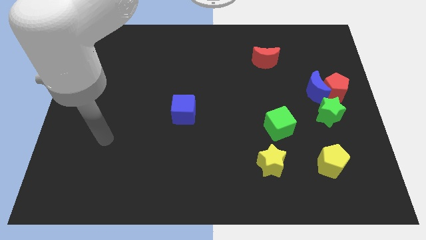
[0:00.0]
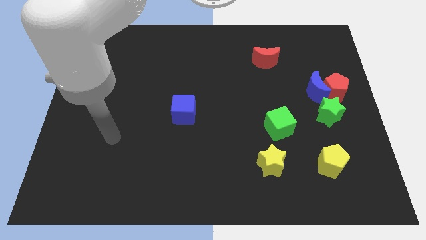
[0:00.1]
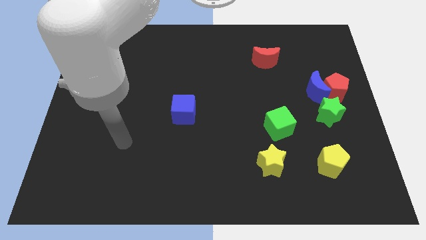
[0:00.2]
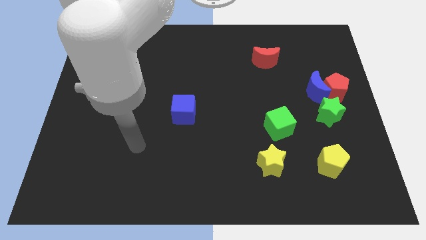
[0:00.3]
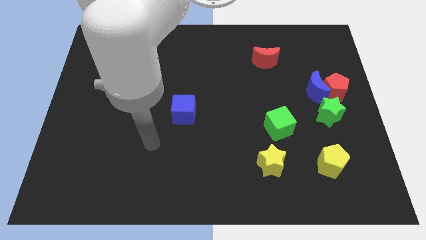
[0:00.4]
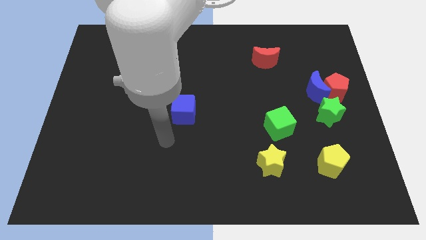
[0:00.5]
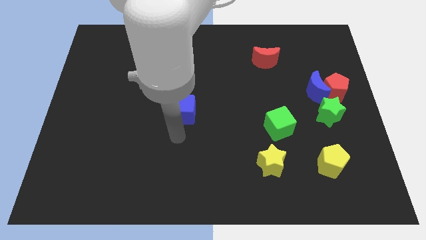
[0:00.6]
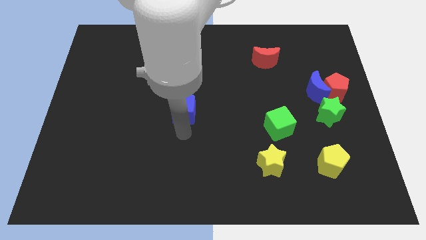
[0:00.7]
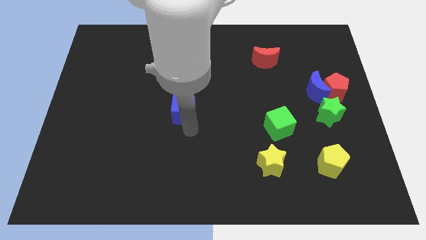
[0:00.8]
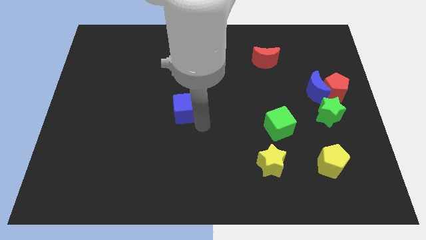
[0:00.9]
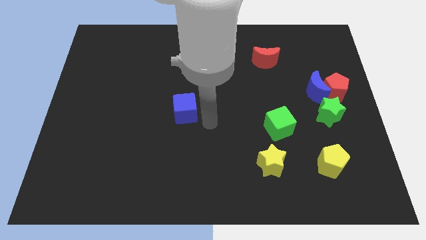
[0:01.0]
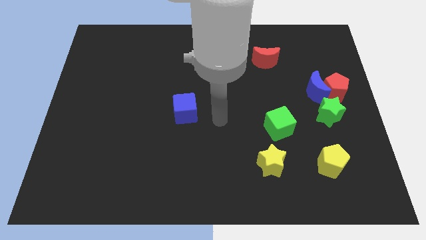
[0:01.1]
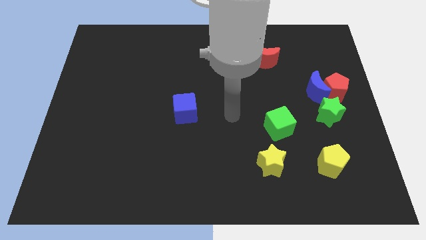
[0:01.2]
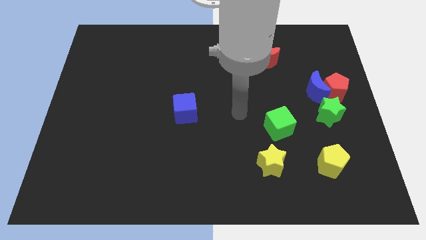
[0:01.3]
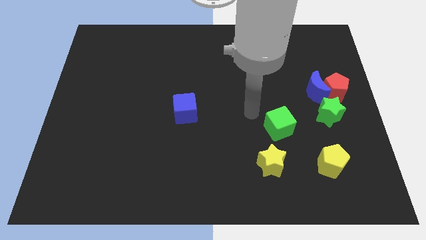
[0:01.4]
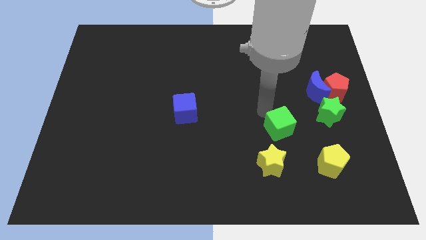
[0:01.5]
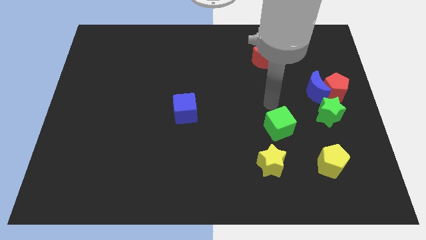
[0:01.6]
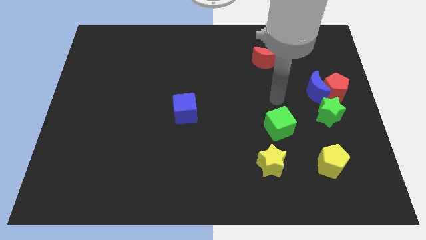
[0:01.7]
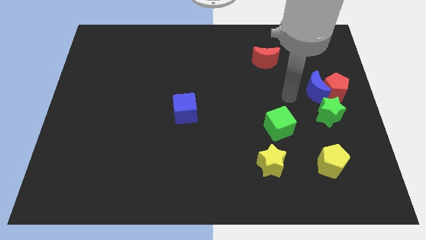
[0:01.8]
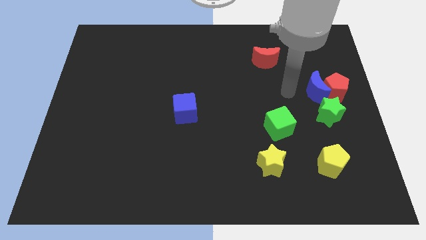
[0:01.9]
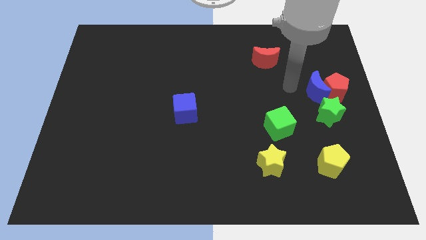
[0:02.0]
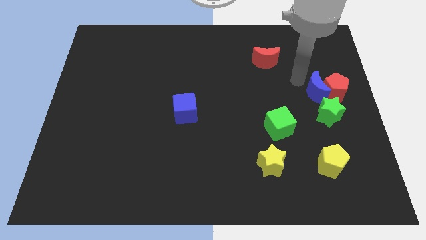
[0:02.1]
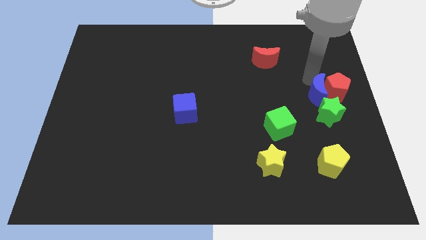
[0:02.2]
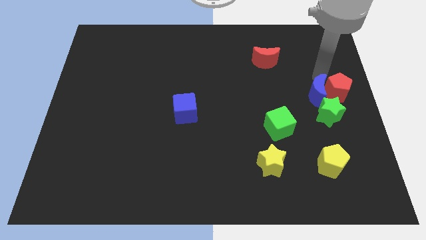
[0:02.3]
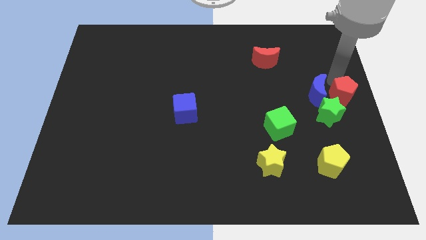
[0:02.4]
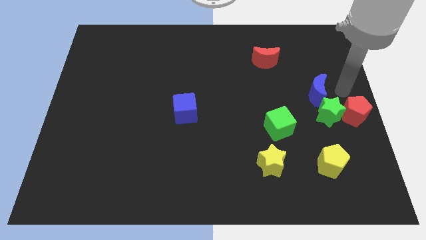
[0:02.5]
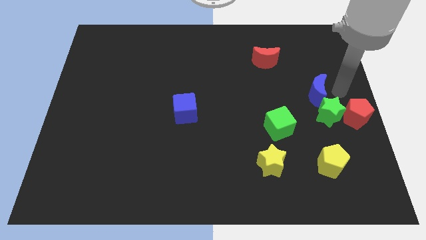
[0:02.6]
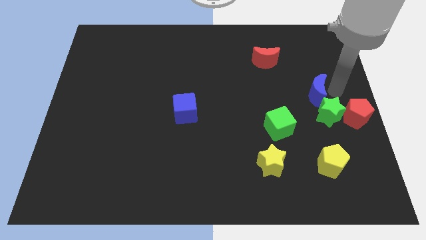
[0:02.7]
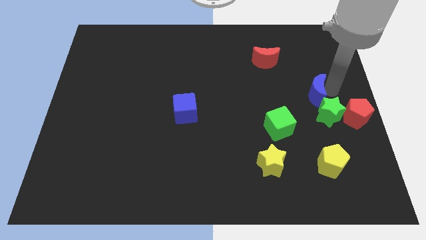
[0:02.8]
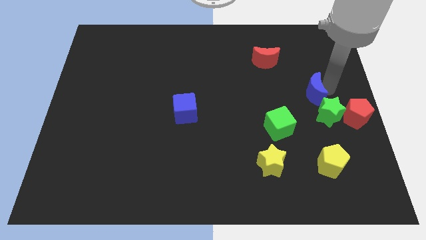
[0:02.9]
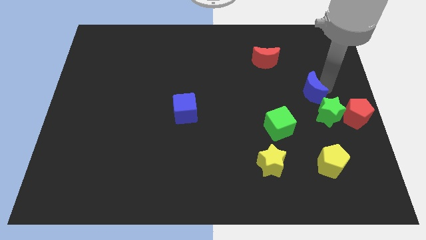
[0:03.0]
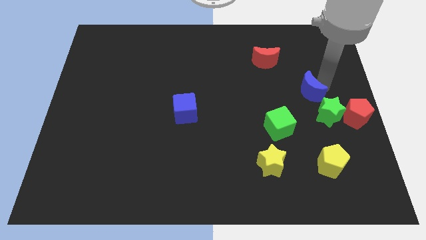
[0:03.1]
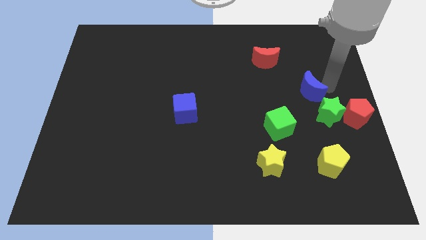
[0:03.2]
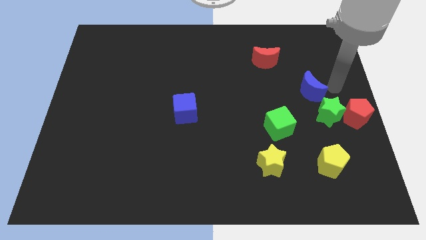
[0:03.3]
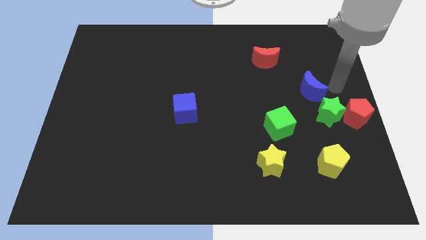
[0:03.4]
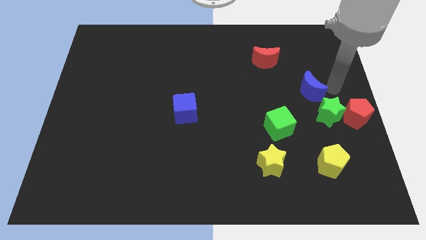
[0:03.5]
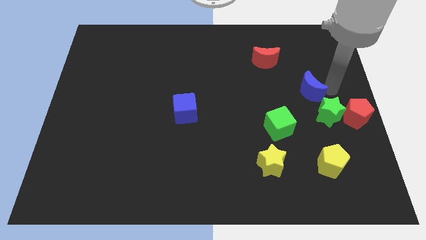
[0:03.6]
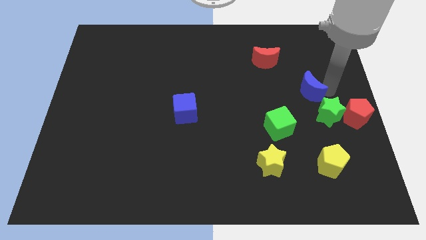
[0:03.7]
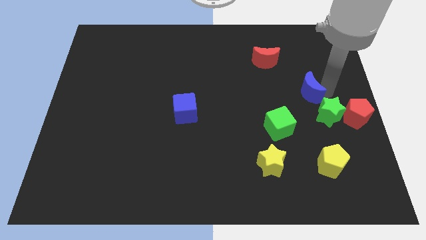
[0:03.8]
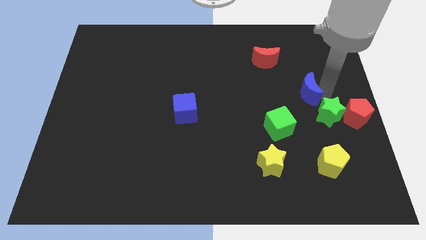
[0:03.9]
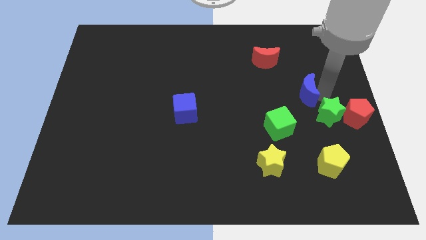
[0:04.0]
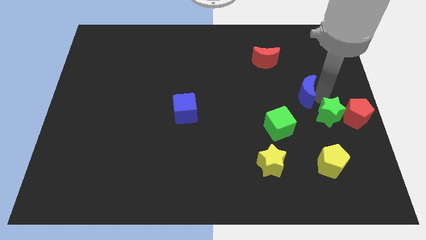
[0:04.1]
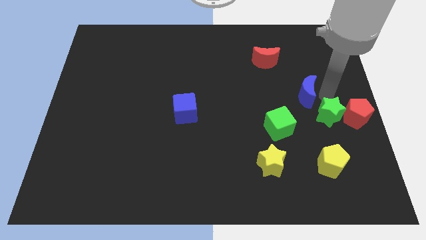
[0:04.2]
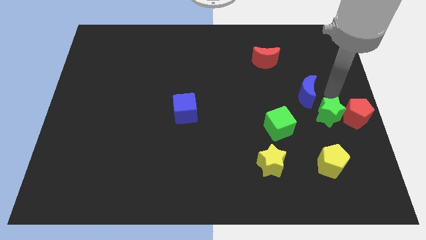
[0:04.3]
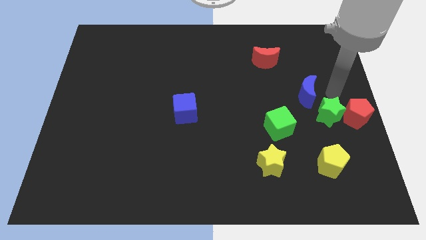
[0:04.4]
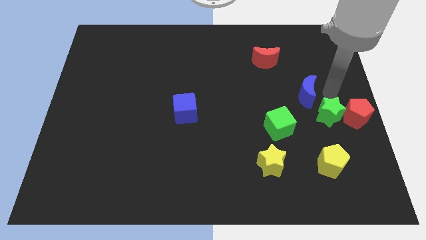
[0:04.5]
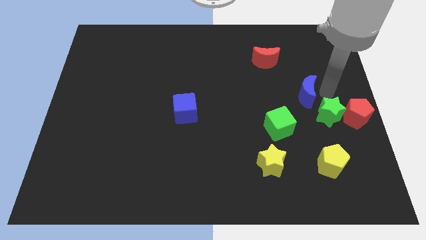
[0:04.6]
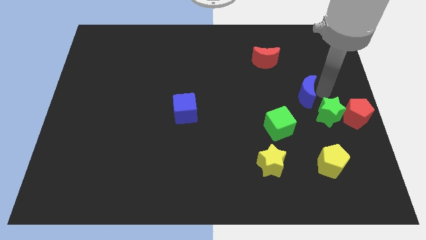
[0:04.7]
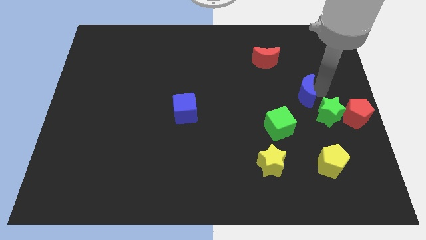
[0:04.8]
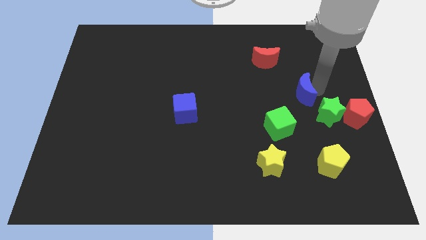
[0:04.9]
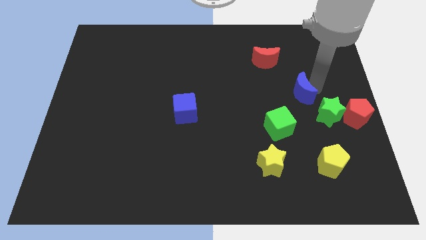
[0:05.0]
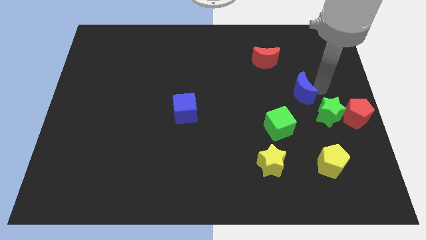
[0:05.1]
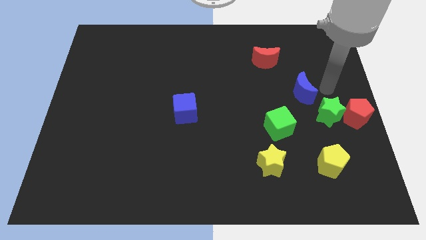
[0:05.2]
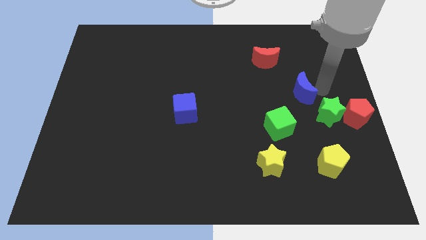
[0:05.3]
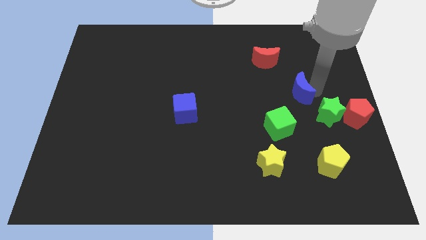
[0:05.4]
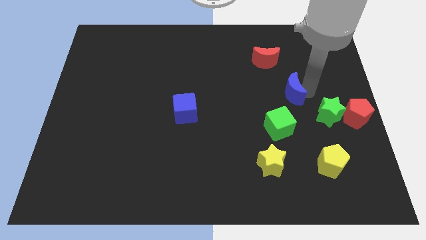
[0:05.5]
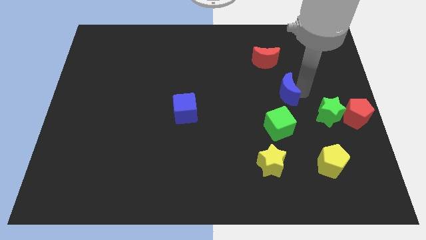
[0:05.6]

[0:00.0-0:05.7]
slide the blue moon left a little bit

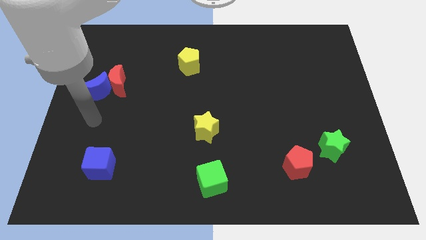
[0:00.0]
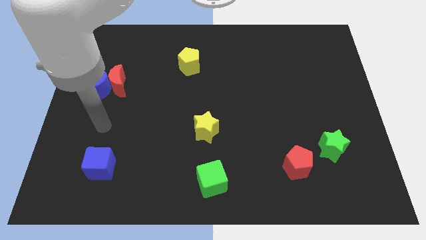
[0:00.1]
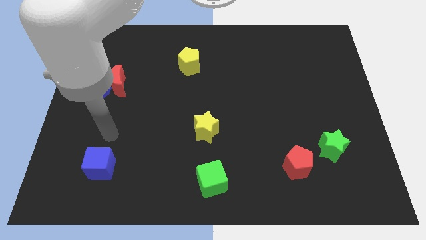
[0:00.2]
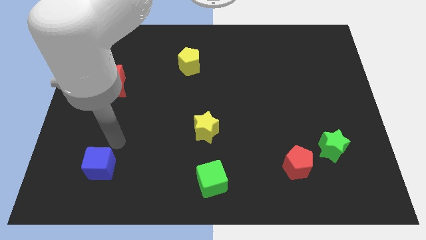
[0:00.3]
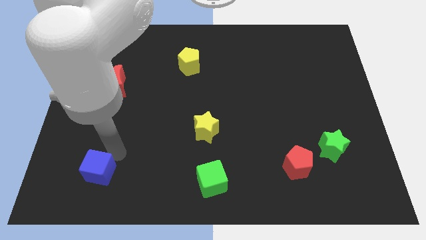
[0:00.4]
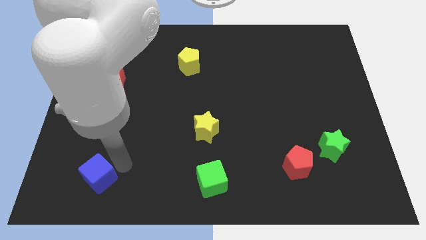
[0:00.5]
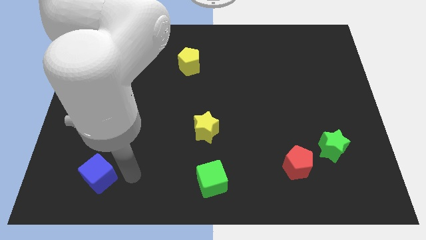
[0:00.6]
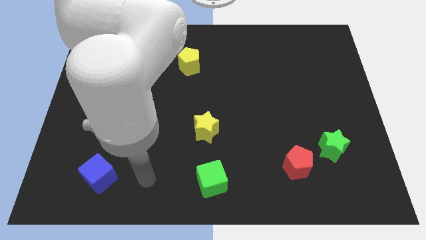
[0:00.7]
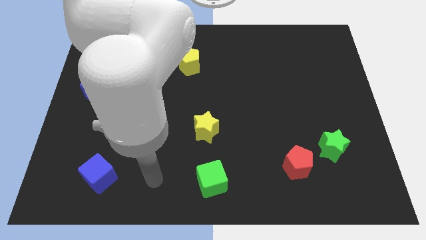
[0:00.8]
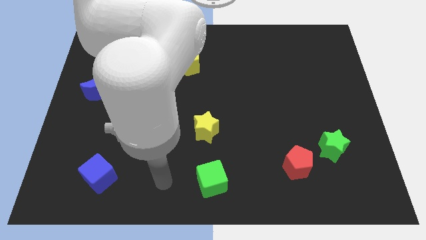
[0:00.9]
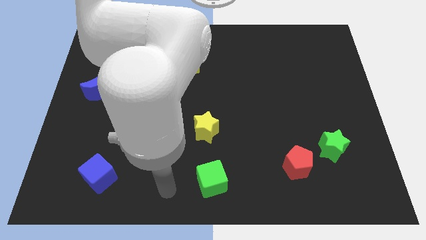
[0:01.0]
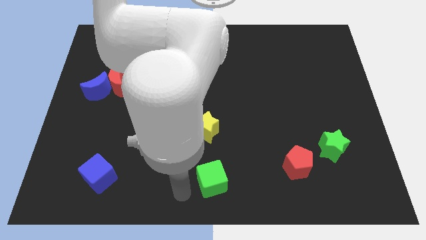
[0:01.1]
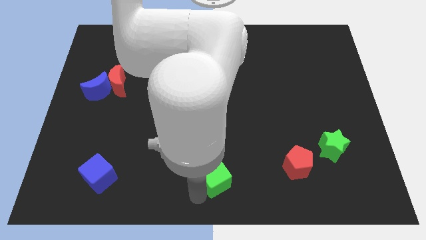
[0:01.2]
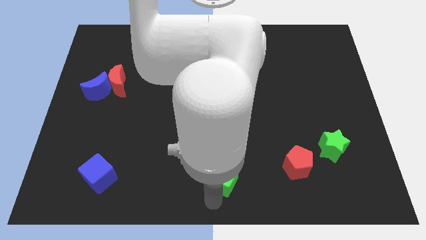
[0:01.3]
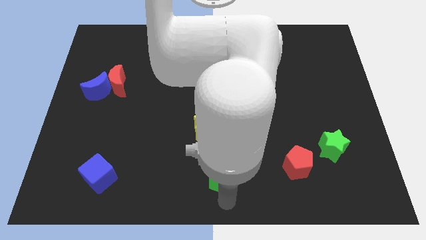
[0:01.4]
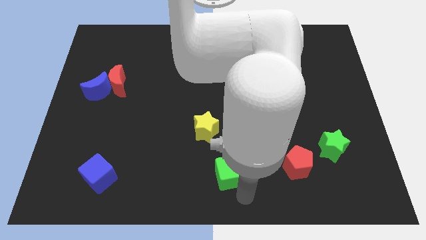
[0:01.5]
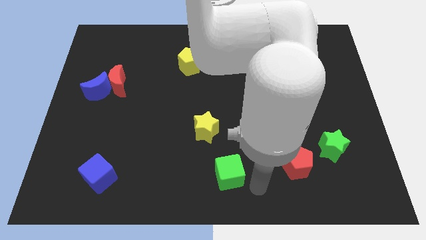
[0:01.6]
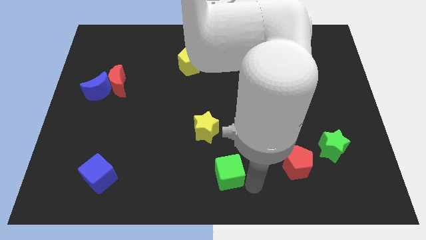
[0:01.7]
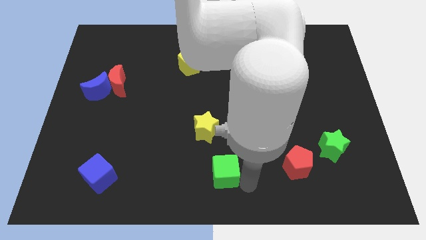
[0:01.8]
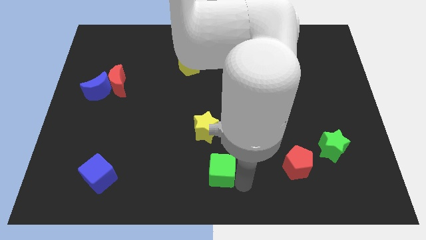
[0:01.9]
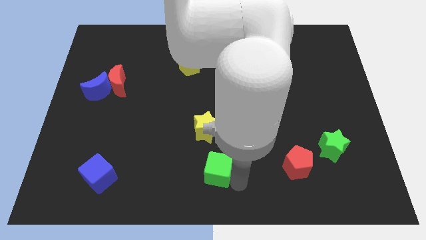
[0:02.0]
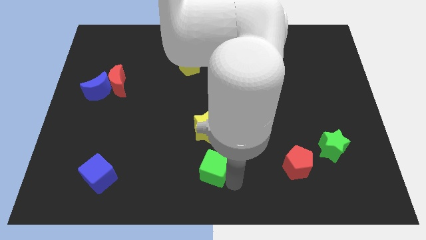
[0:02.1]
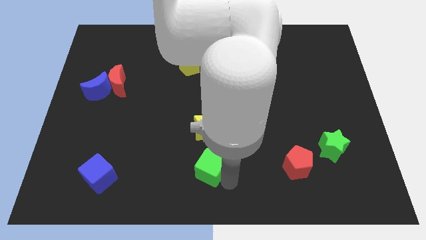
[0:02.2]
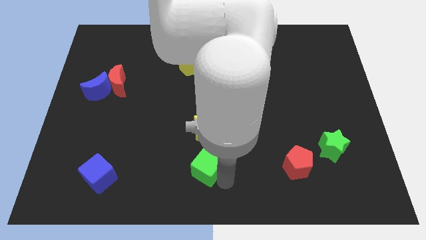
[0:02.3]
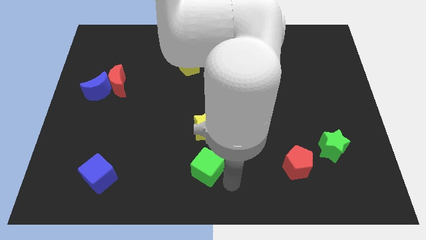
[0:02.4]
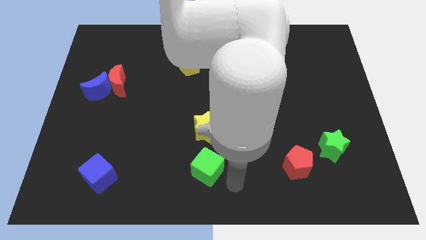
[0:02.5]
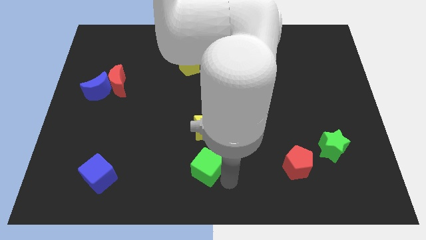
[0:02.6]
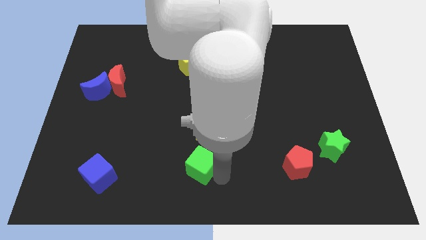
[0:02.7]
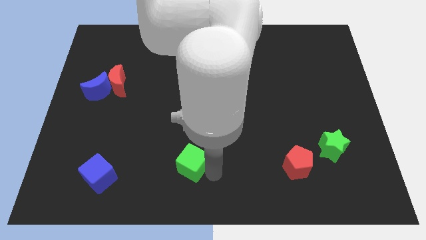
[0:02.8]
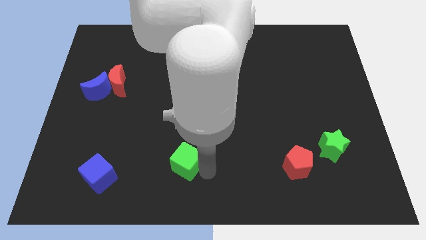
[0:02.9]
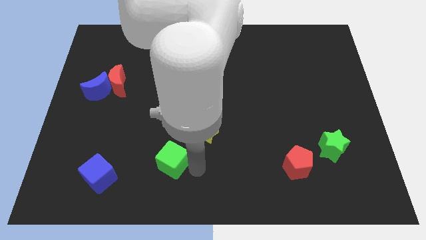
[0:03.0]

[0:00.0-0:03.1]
slightly push the green cube up and then to the left
